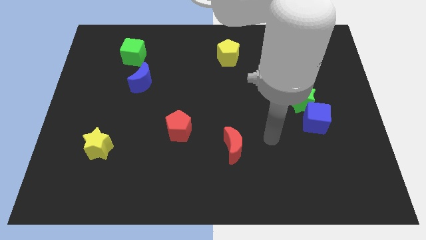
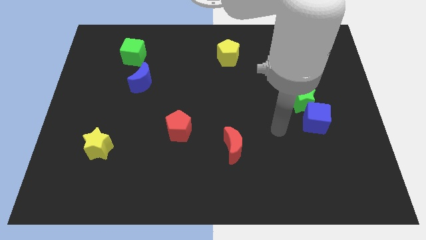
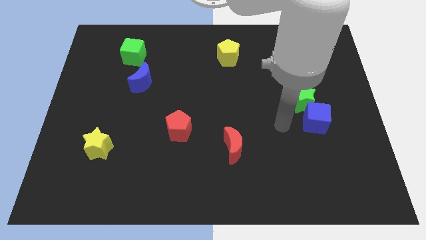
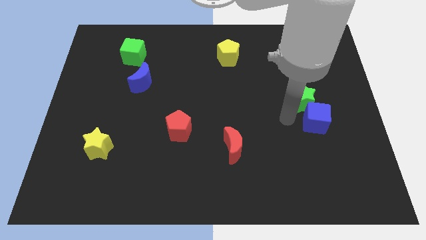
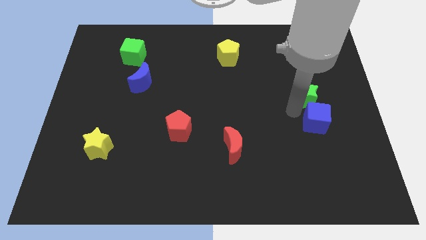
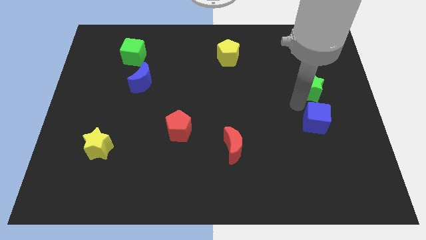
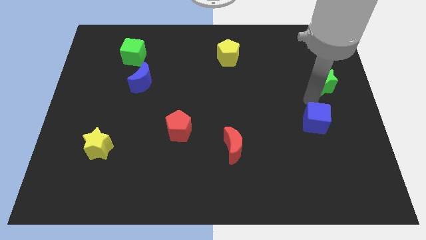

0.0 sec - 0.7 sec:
separate the blue cube from the green star

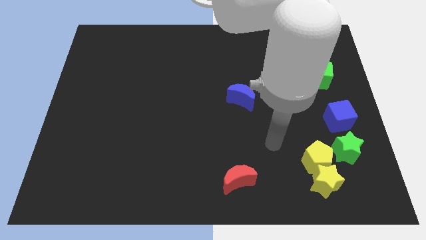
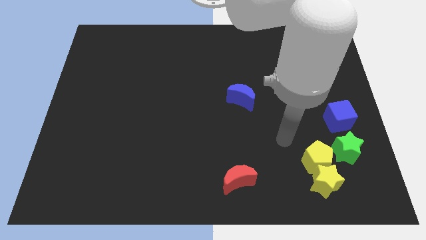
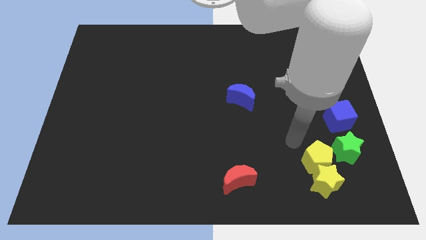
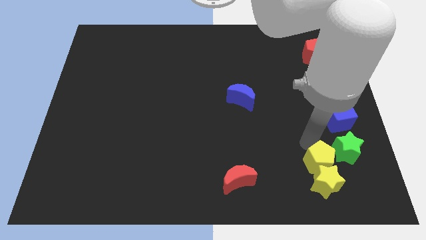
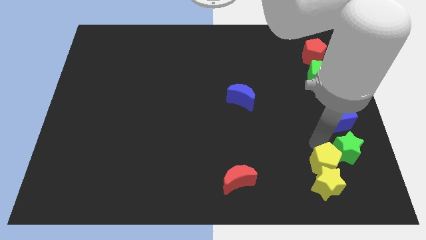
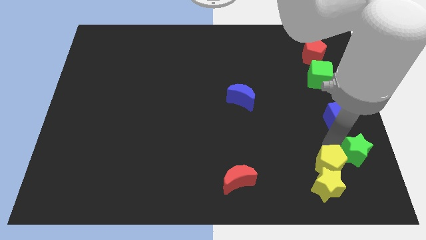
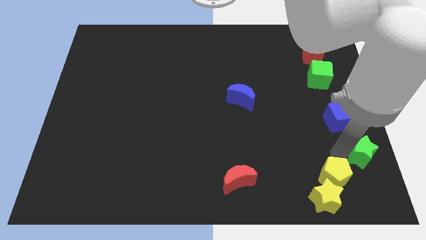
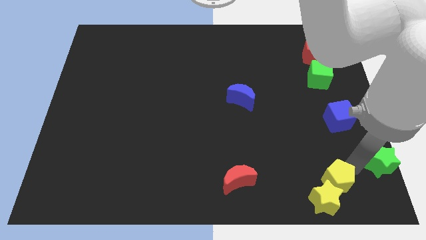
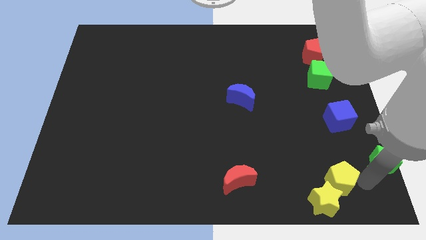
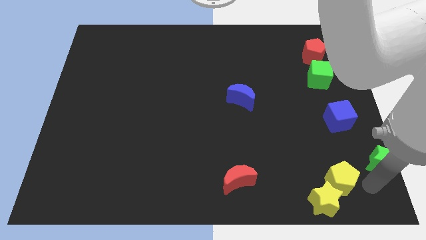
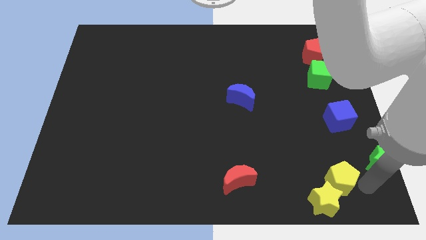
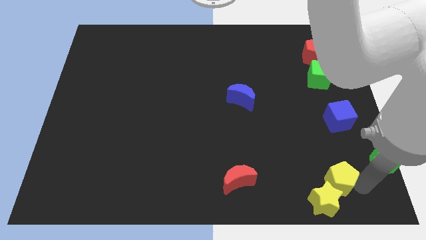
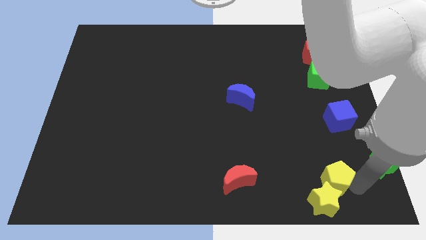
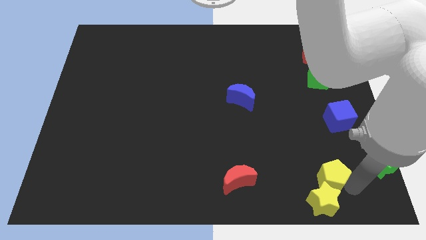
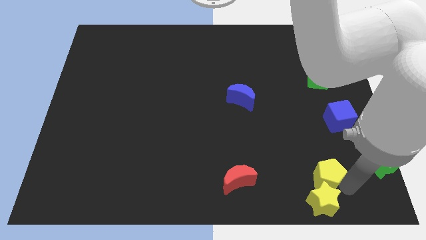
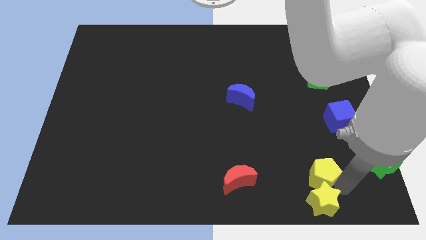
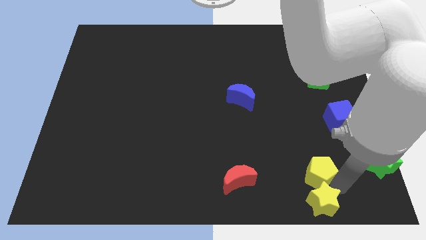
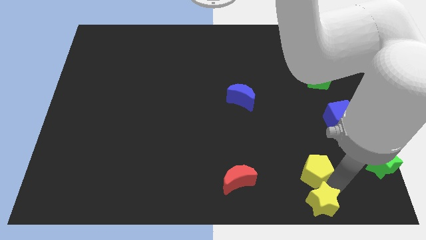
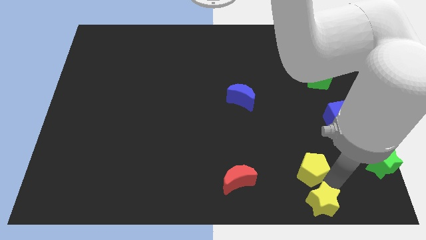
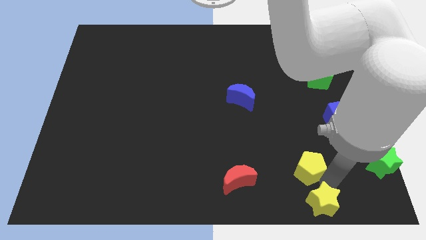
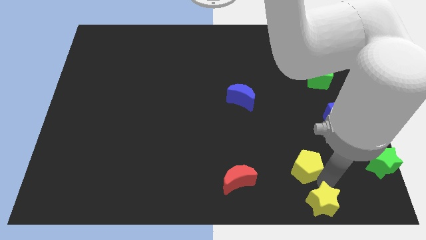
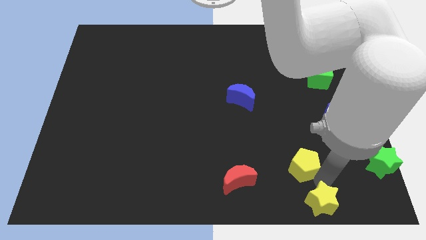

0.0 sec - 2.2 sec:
separate the yellow pentagon from the yellow star and green star

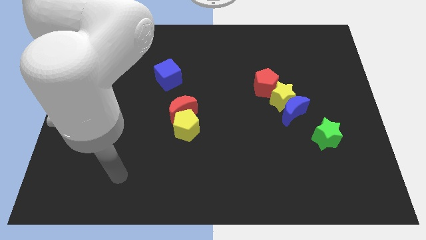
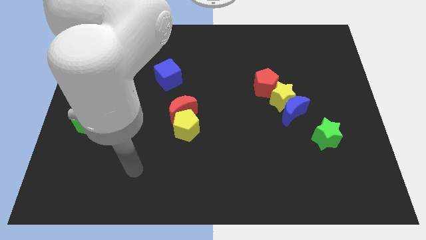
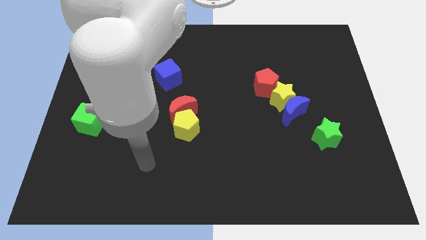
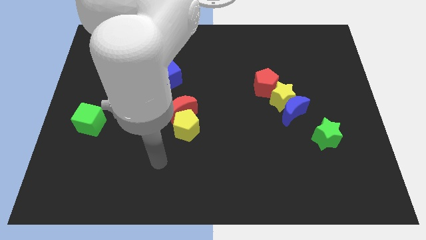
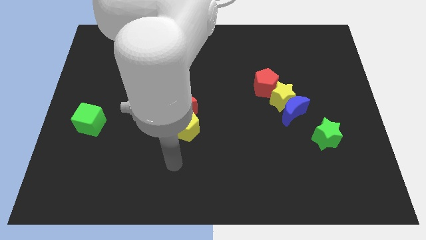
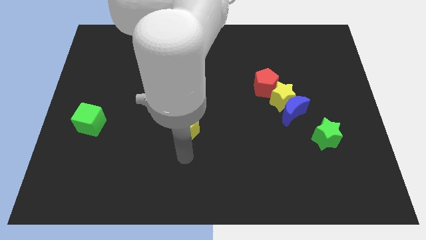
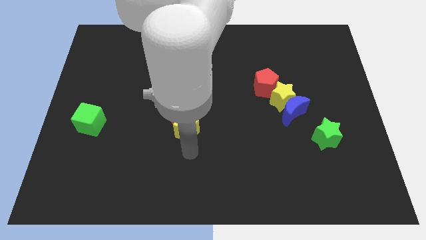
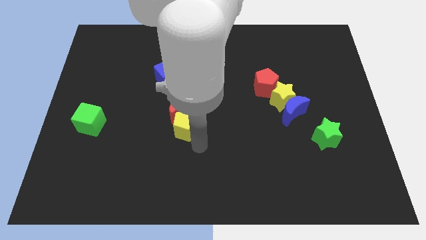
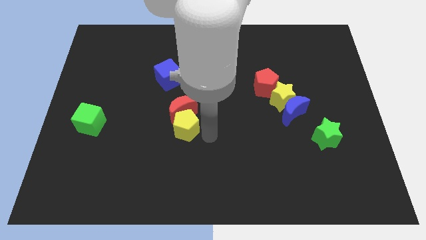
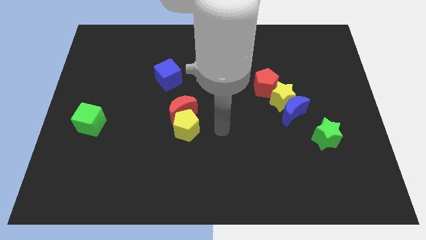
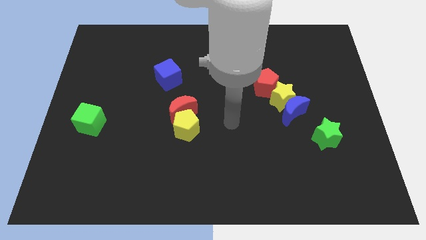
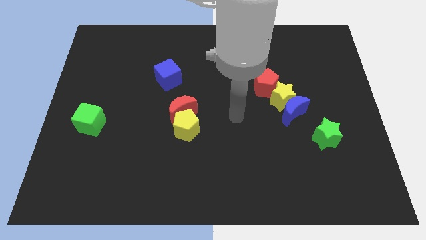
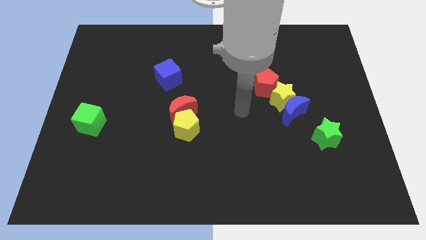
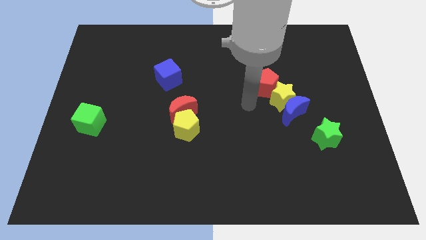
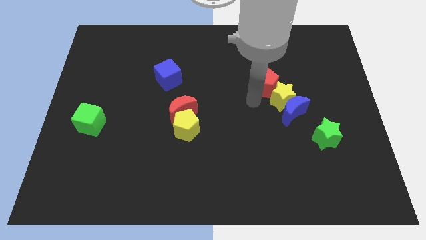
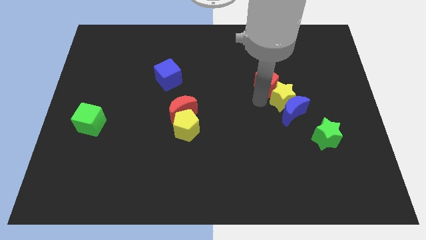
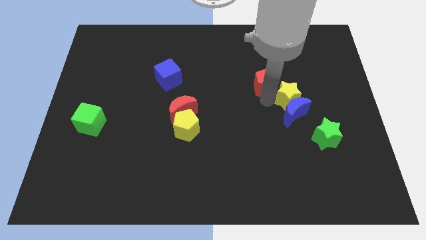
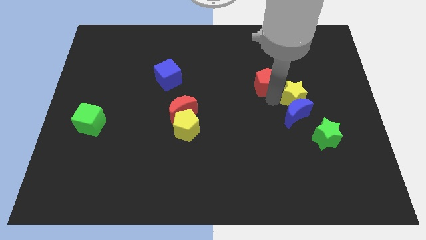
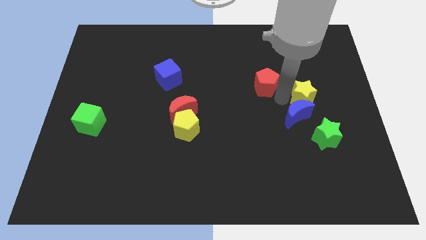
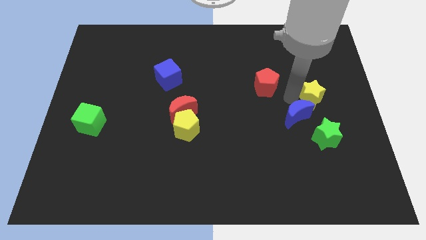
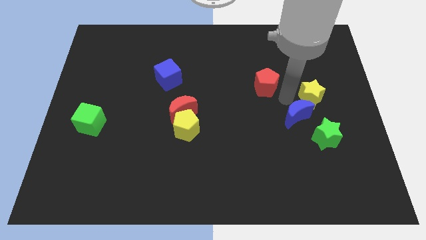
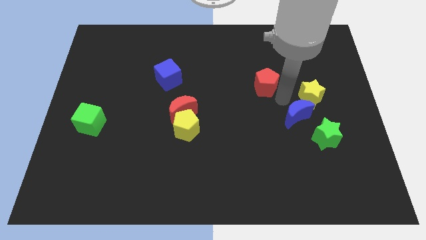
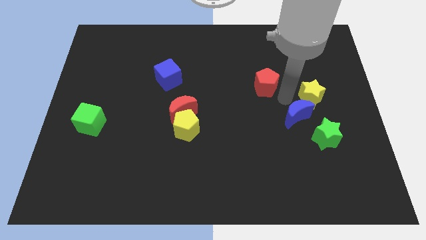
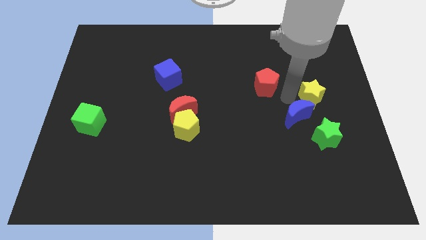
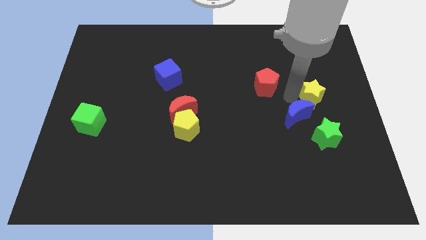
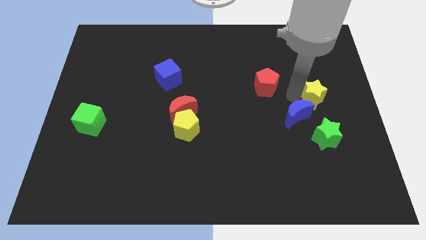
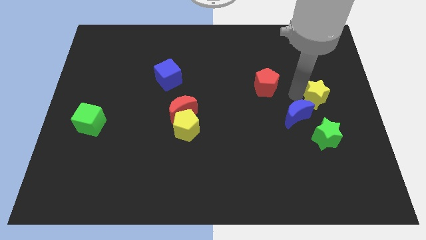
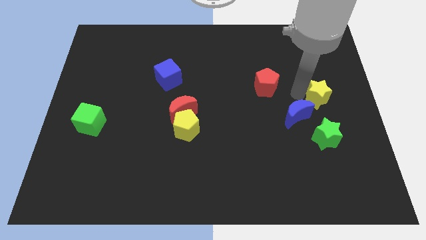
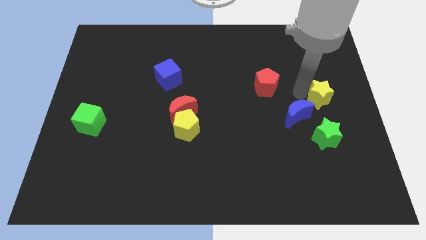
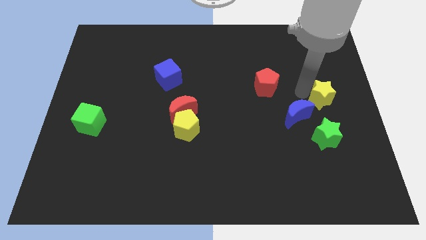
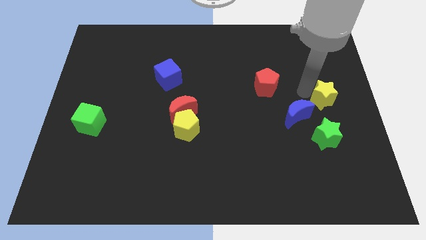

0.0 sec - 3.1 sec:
move the yellow star away from the blue moon and red pentagon

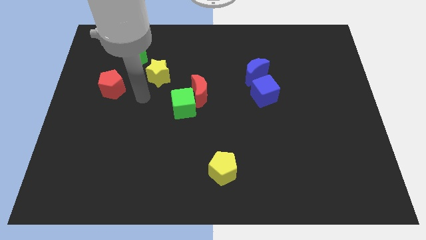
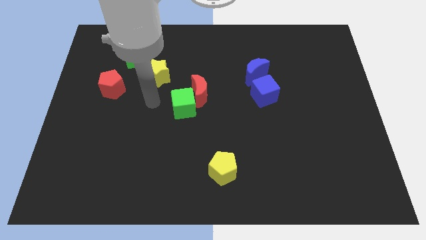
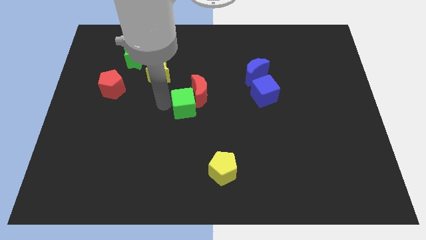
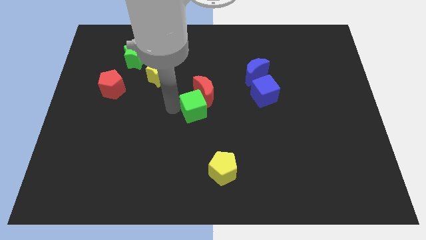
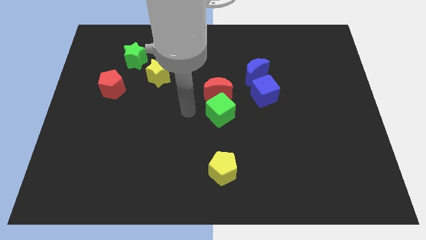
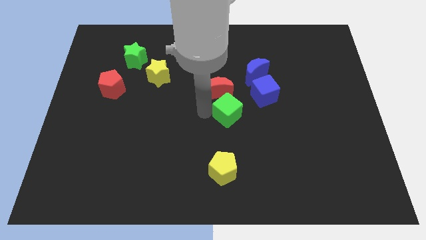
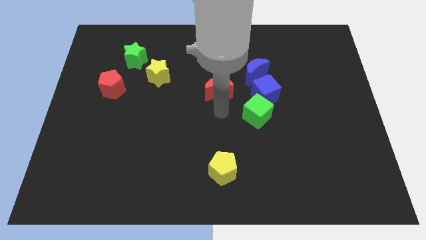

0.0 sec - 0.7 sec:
pull the red moon apart from the green cube

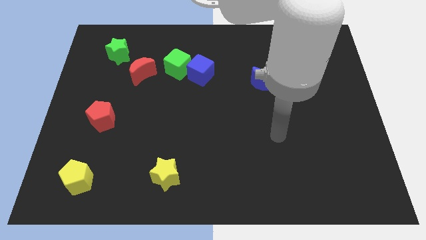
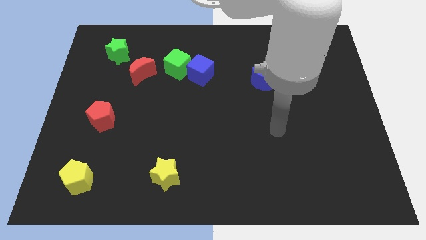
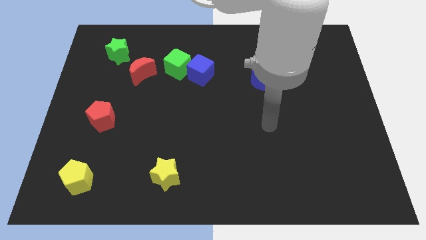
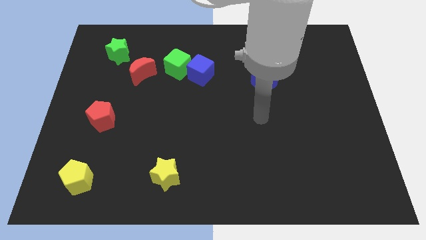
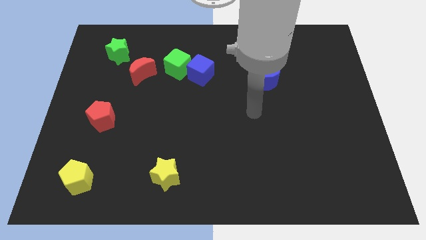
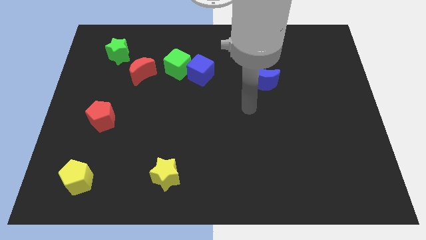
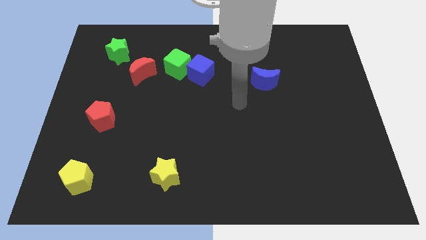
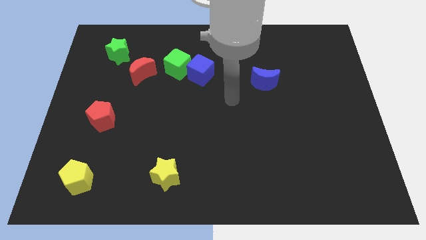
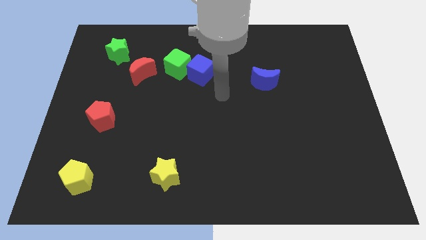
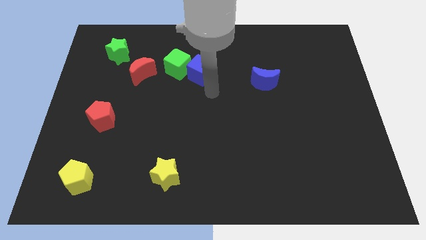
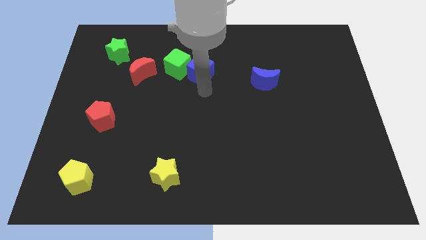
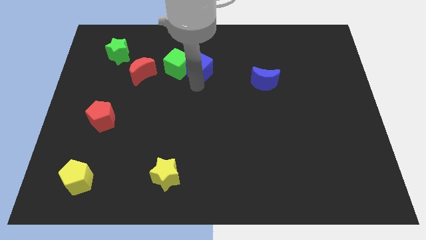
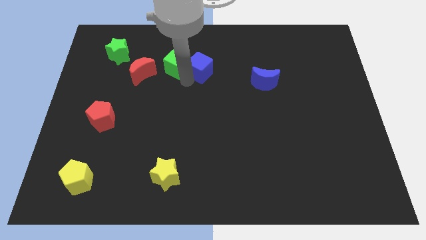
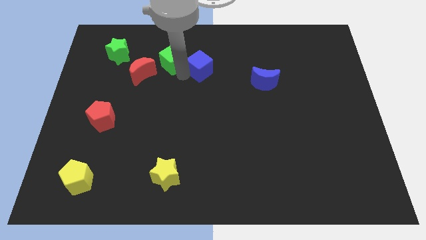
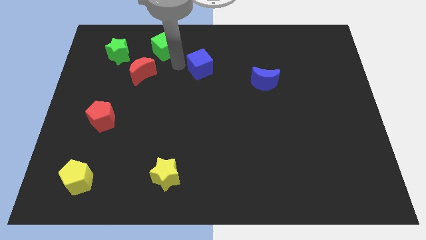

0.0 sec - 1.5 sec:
pull the blue cube apart from the green cube

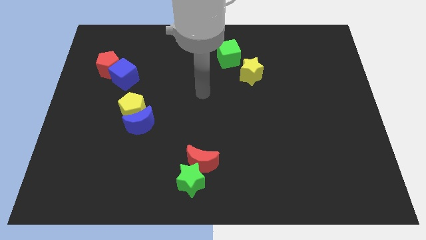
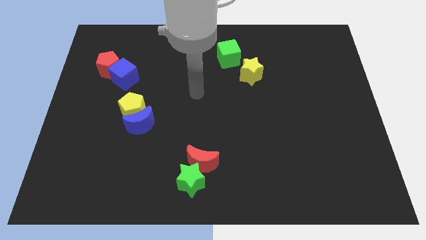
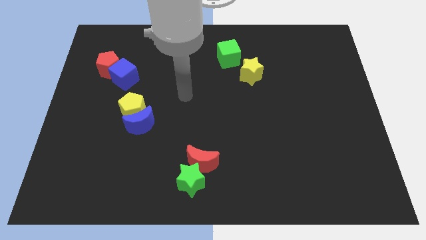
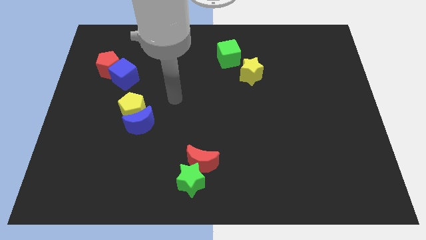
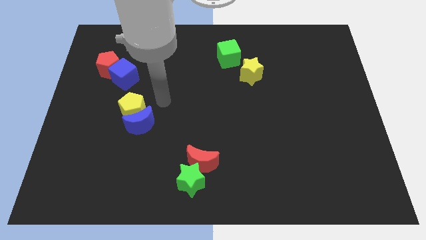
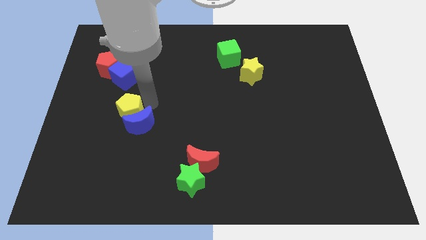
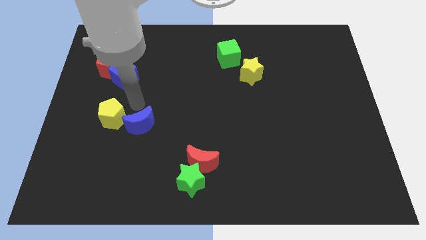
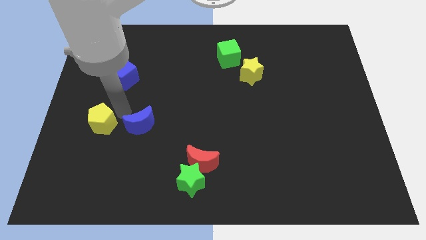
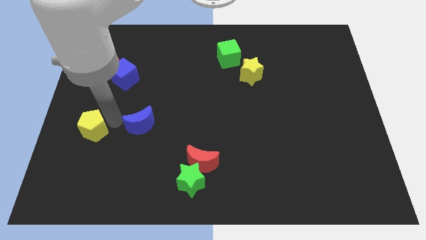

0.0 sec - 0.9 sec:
move the blue moon away from the yellow pentagon

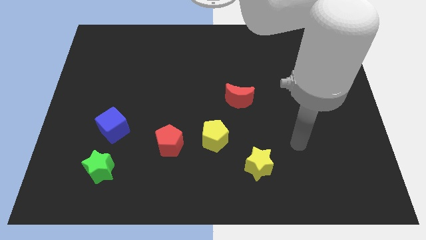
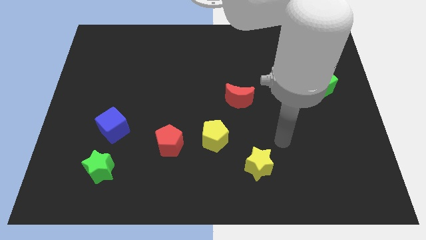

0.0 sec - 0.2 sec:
move the red pentagon away from the yellow pentagon
